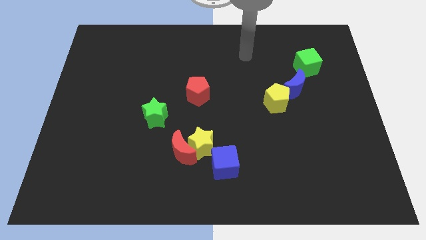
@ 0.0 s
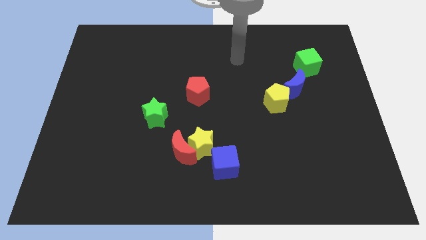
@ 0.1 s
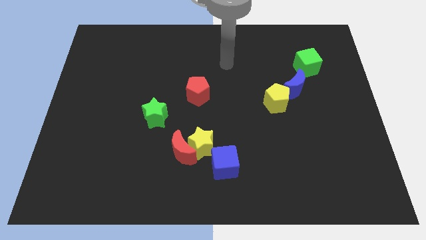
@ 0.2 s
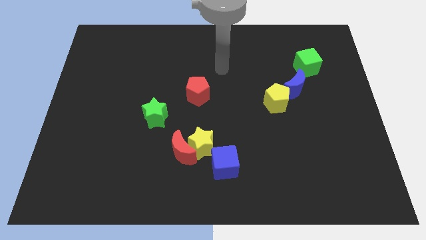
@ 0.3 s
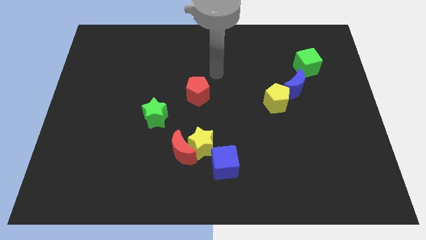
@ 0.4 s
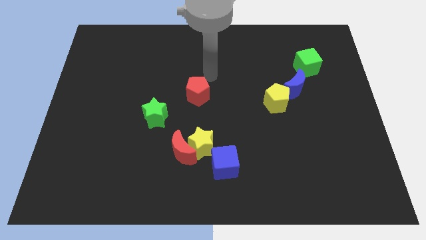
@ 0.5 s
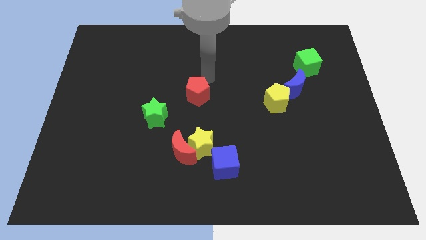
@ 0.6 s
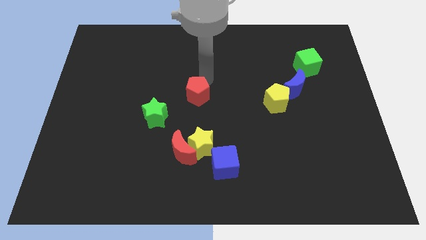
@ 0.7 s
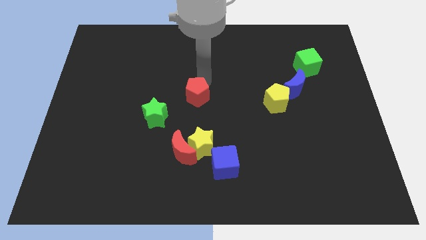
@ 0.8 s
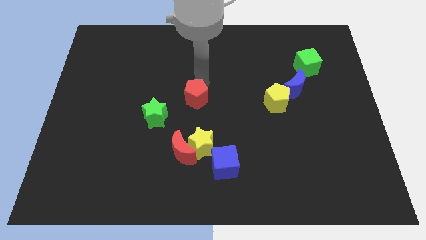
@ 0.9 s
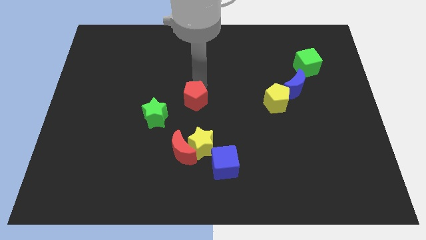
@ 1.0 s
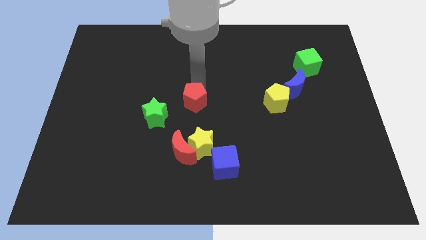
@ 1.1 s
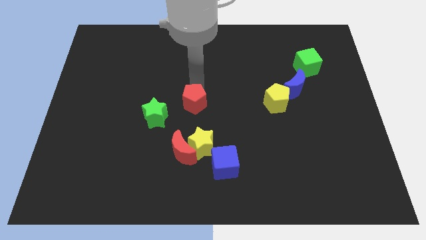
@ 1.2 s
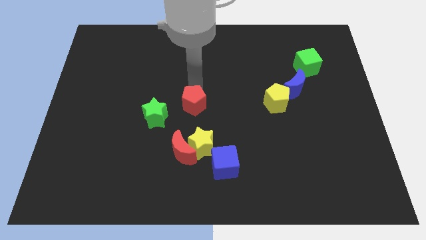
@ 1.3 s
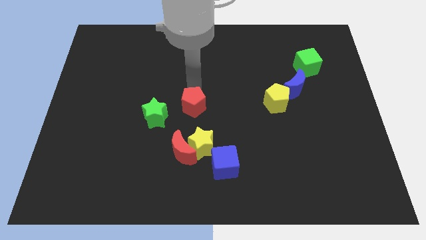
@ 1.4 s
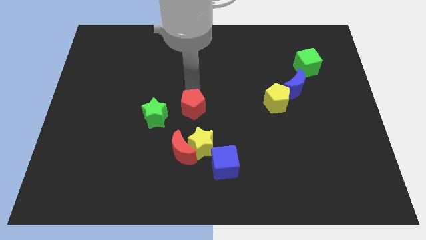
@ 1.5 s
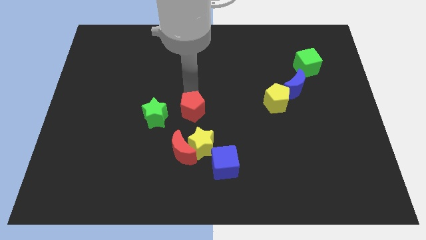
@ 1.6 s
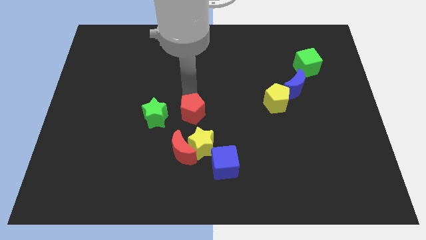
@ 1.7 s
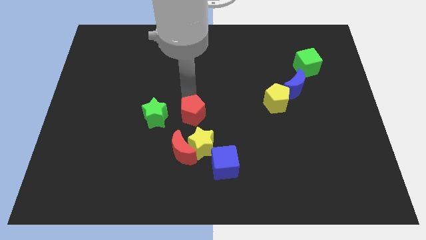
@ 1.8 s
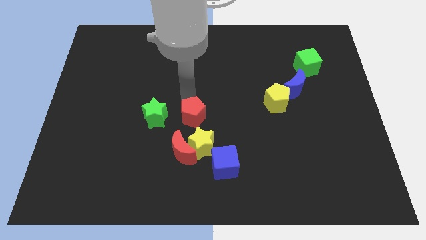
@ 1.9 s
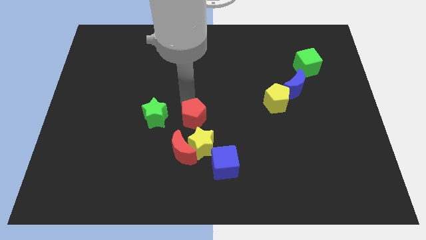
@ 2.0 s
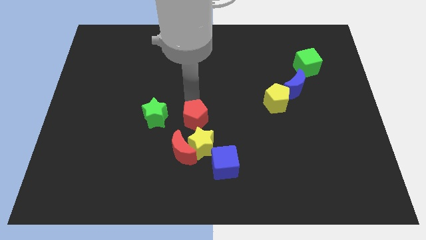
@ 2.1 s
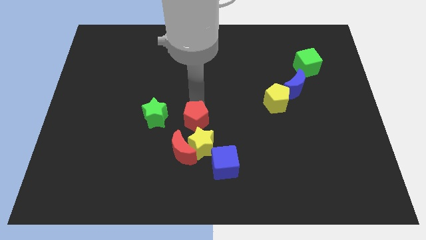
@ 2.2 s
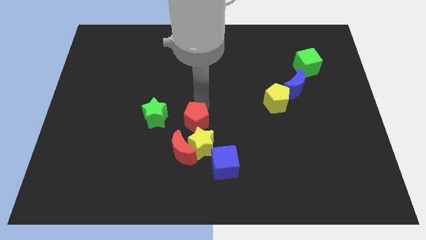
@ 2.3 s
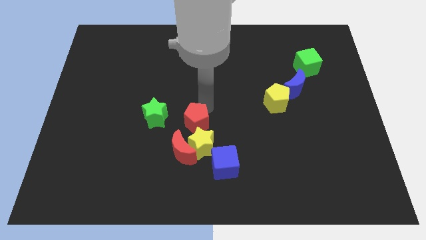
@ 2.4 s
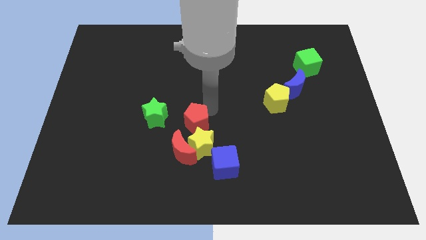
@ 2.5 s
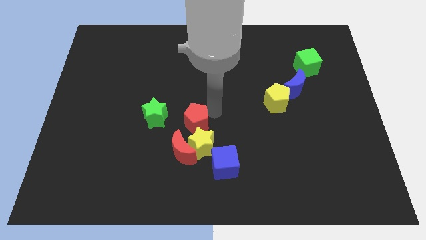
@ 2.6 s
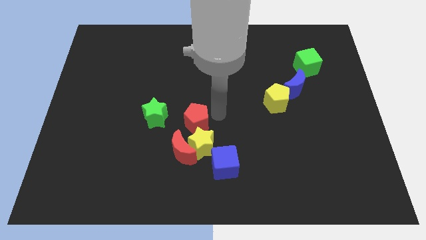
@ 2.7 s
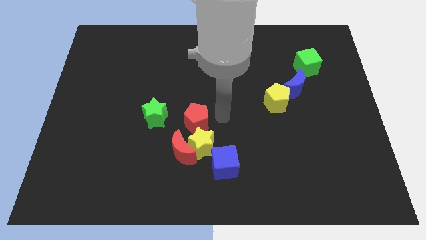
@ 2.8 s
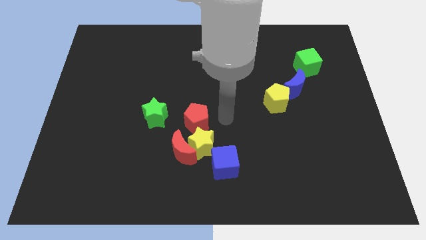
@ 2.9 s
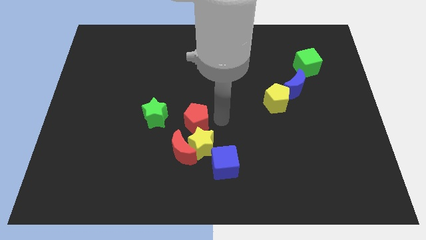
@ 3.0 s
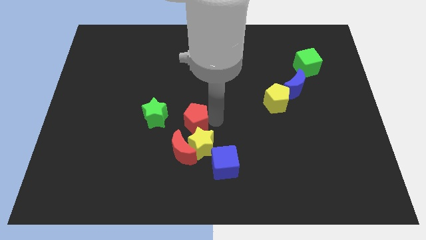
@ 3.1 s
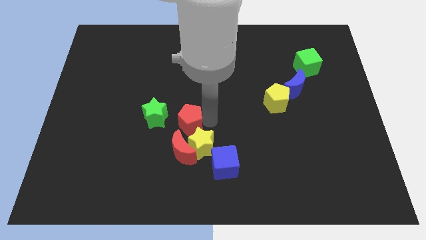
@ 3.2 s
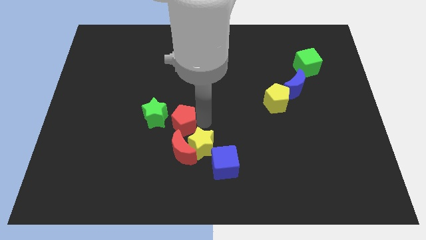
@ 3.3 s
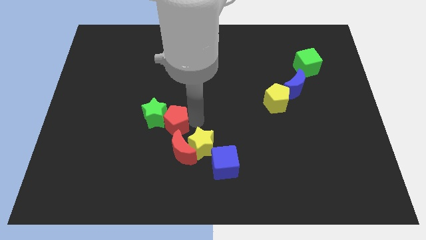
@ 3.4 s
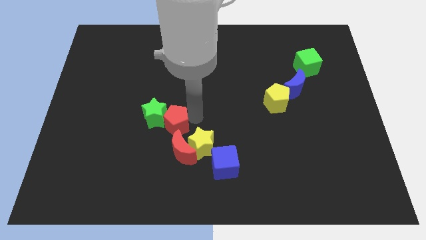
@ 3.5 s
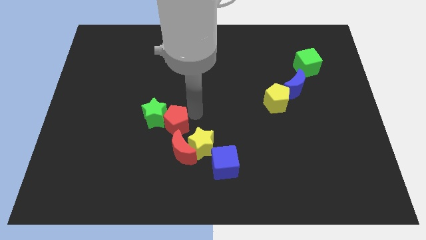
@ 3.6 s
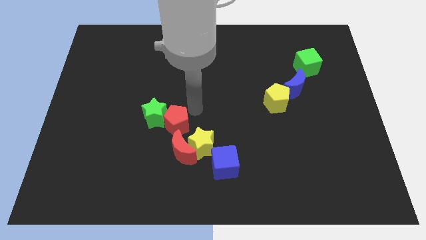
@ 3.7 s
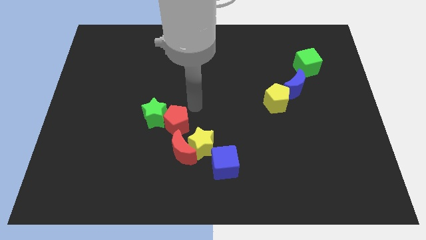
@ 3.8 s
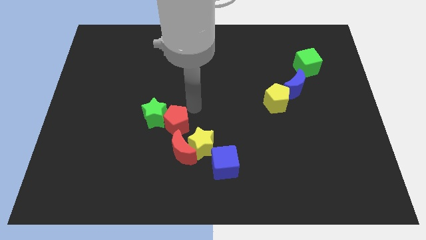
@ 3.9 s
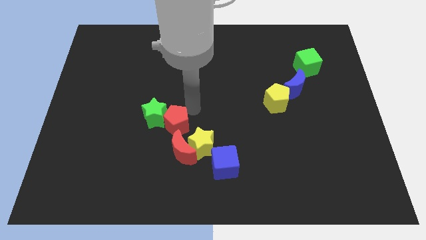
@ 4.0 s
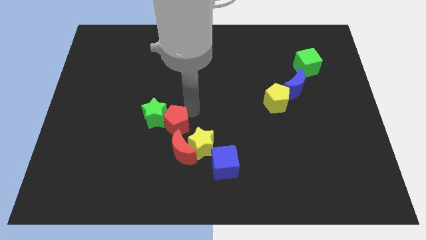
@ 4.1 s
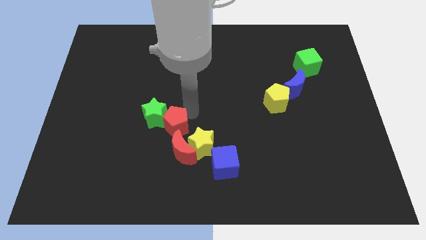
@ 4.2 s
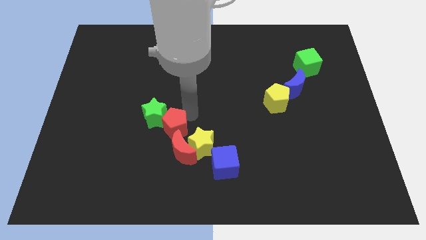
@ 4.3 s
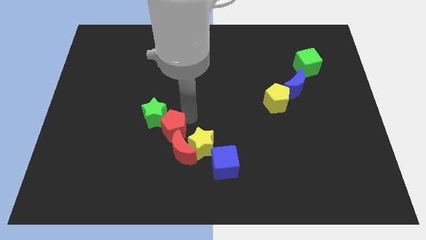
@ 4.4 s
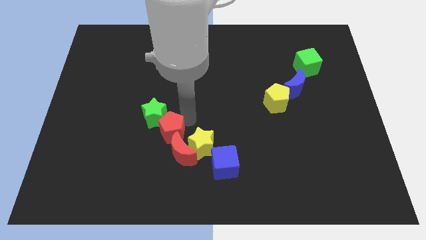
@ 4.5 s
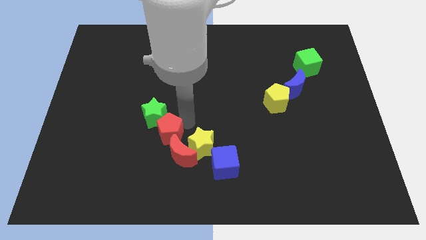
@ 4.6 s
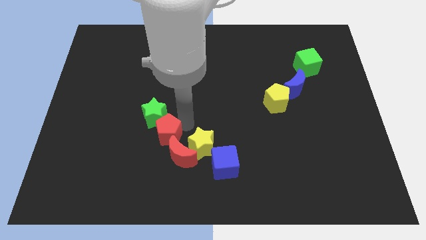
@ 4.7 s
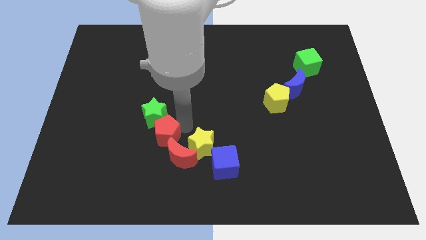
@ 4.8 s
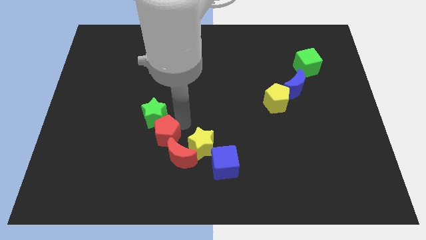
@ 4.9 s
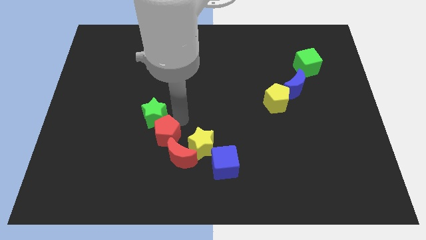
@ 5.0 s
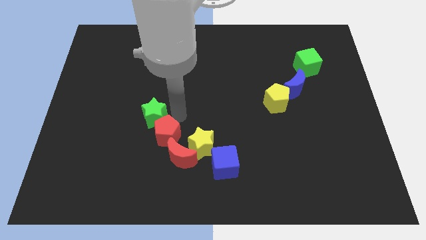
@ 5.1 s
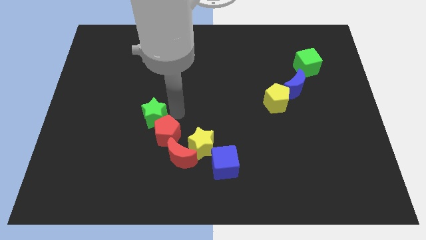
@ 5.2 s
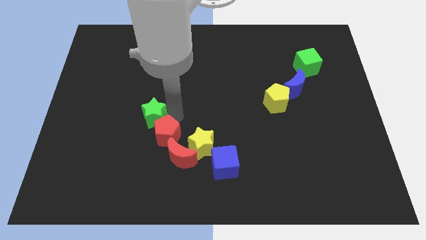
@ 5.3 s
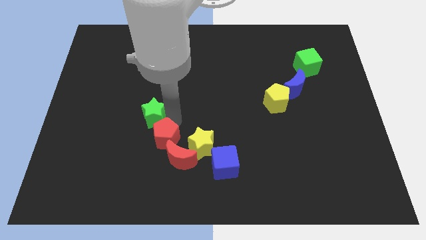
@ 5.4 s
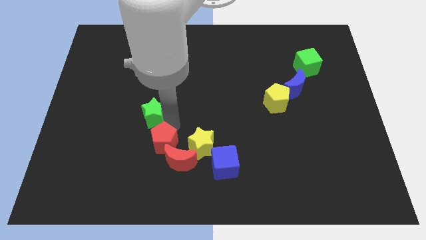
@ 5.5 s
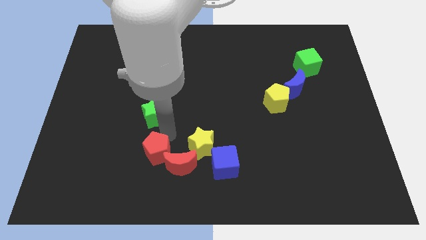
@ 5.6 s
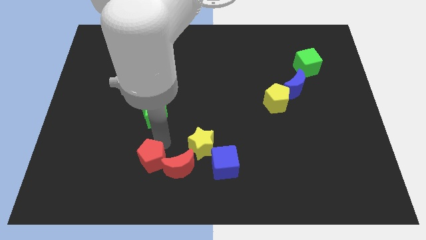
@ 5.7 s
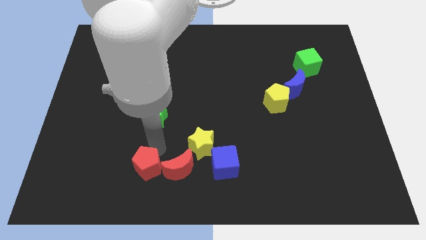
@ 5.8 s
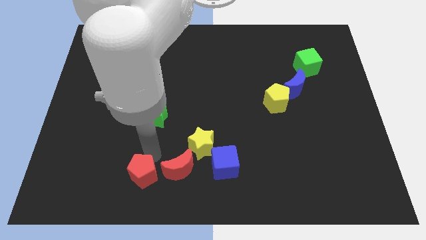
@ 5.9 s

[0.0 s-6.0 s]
push the red pentagon diagonally down and to the left of the red moon

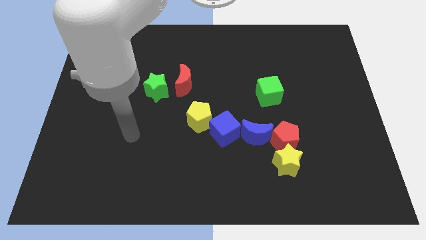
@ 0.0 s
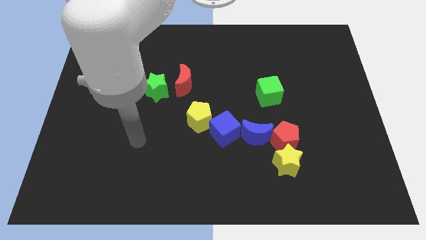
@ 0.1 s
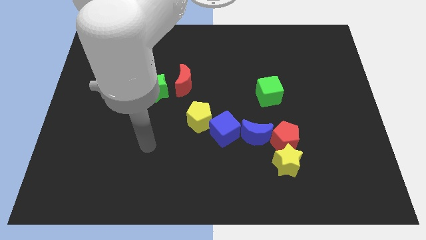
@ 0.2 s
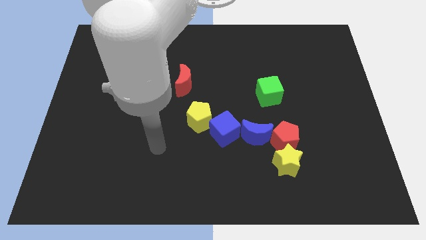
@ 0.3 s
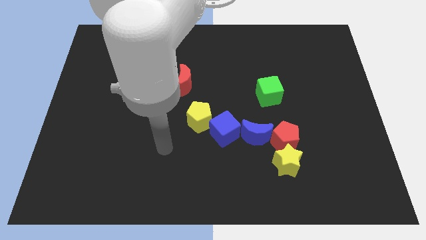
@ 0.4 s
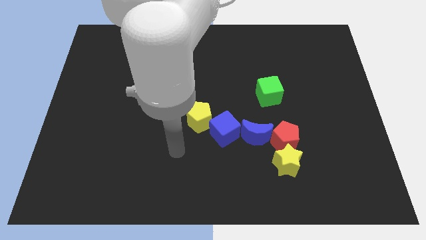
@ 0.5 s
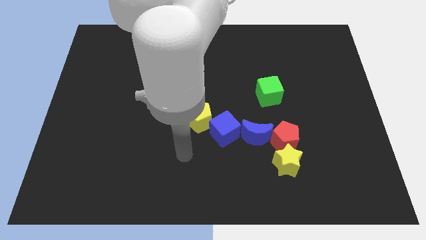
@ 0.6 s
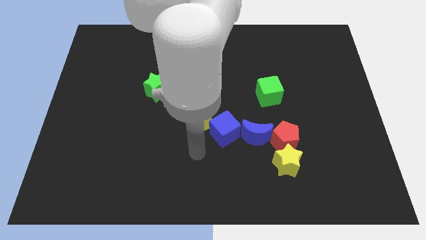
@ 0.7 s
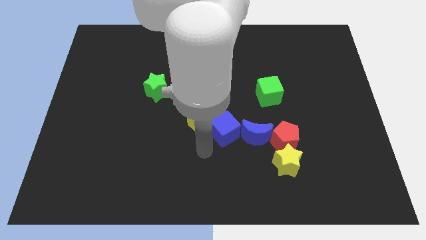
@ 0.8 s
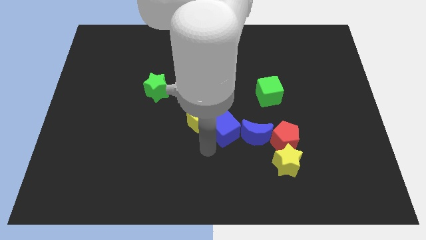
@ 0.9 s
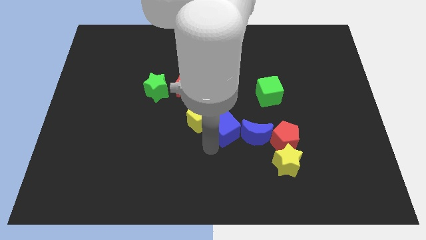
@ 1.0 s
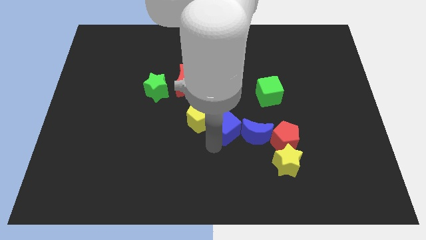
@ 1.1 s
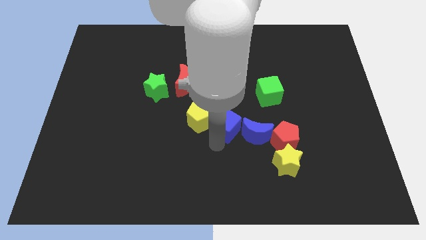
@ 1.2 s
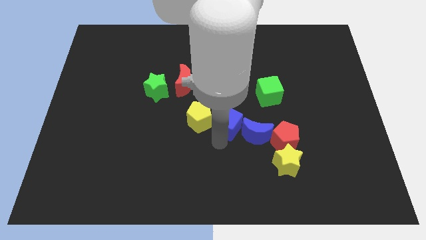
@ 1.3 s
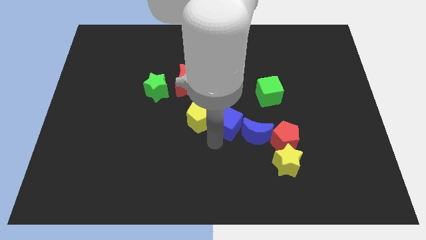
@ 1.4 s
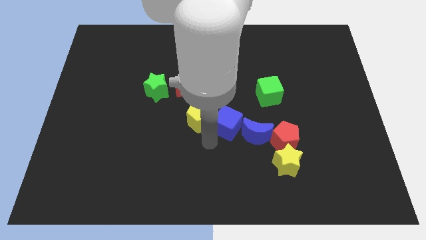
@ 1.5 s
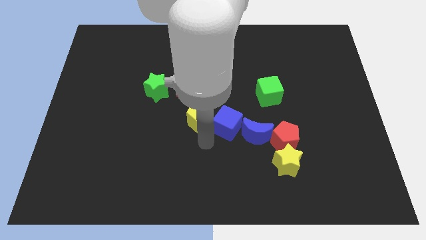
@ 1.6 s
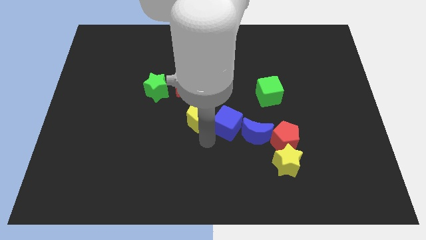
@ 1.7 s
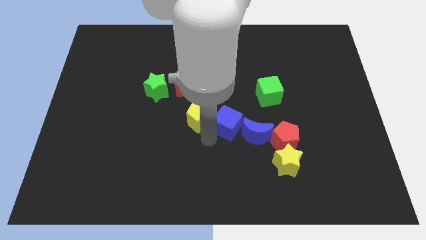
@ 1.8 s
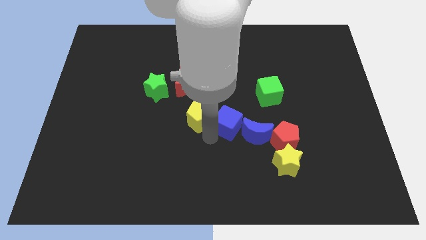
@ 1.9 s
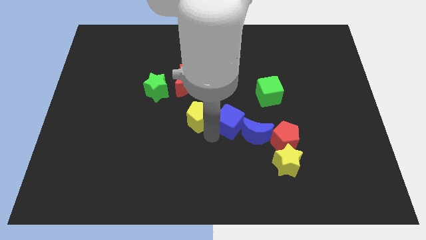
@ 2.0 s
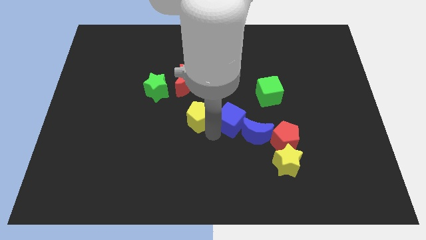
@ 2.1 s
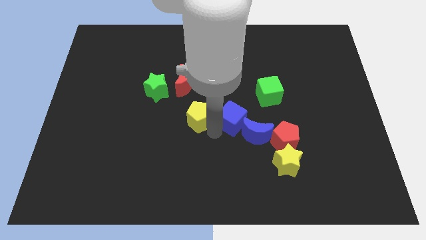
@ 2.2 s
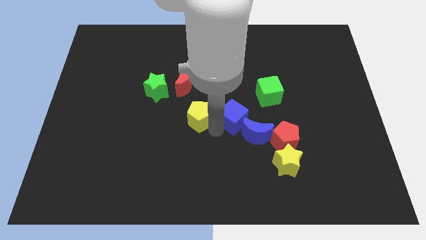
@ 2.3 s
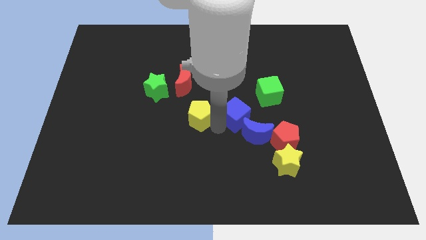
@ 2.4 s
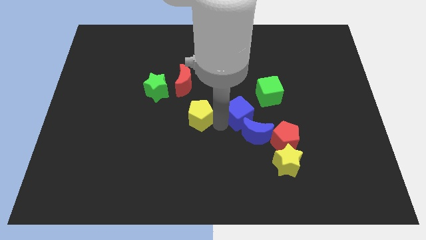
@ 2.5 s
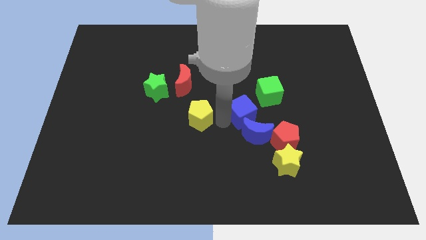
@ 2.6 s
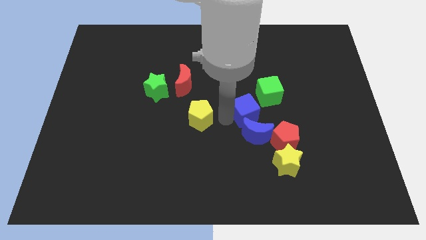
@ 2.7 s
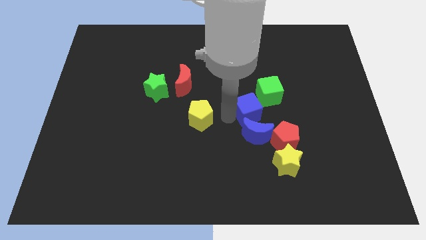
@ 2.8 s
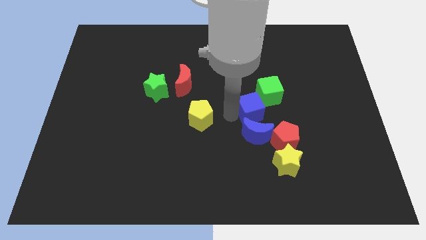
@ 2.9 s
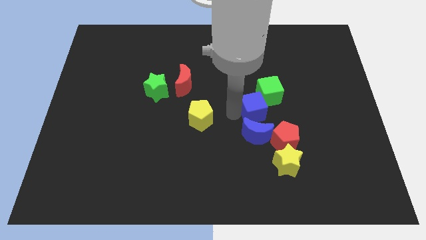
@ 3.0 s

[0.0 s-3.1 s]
move the blue cube to the top right side of the blue moon
